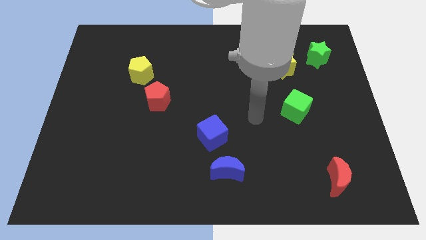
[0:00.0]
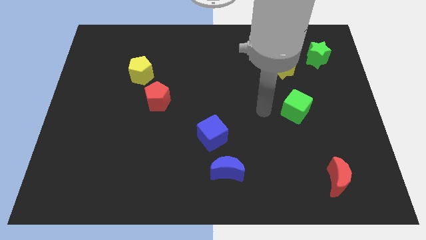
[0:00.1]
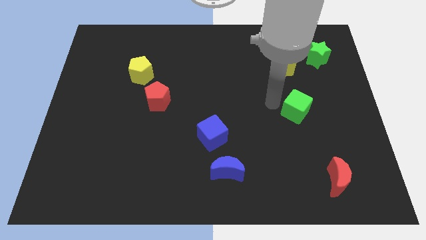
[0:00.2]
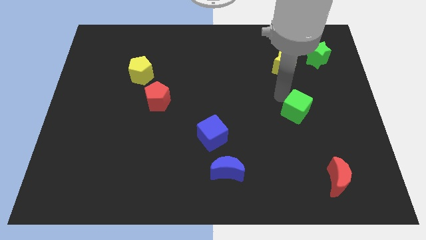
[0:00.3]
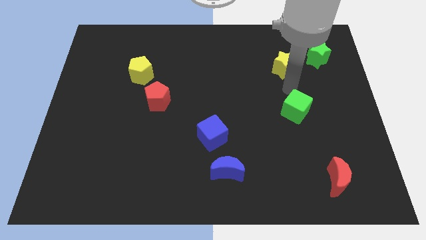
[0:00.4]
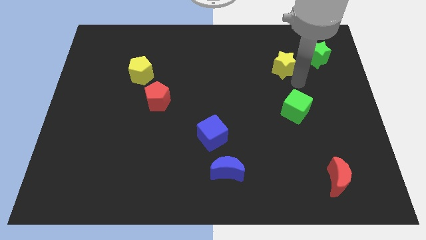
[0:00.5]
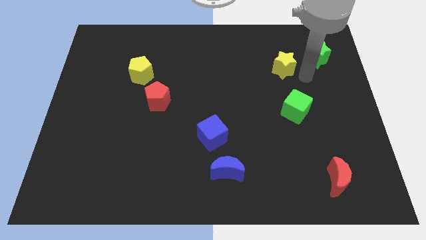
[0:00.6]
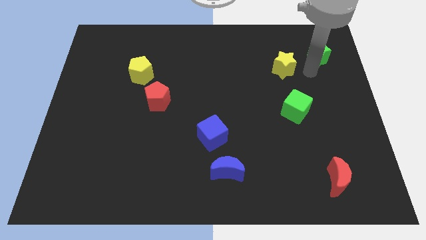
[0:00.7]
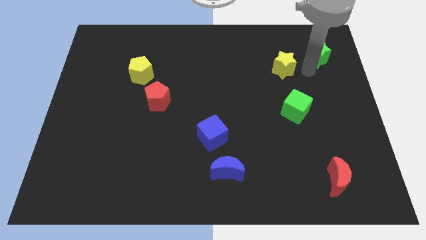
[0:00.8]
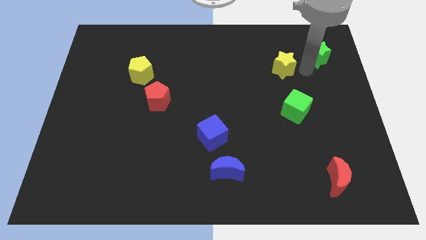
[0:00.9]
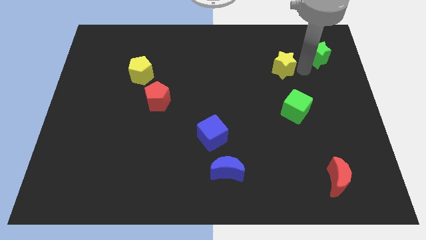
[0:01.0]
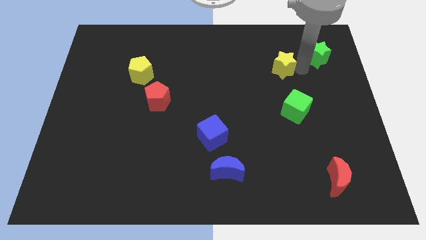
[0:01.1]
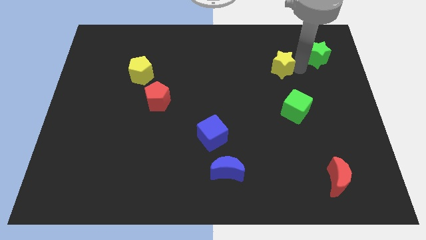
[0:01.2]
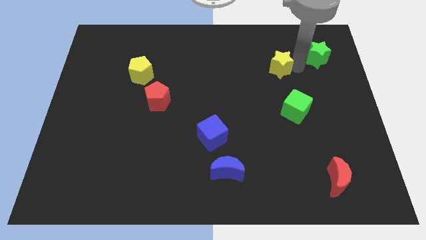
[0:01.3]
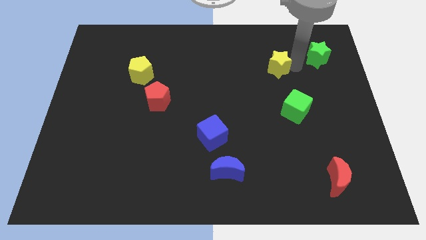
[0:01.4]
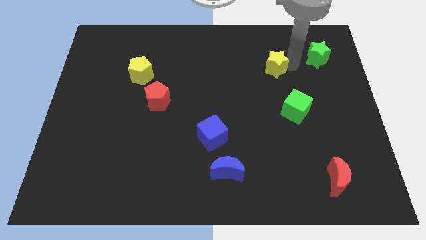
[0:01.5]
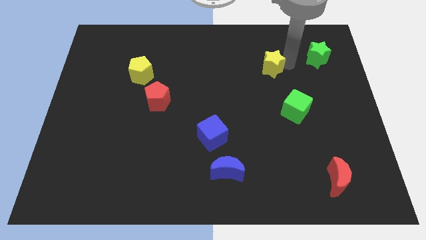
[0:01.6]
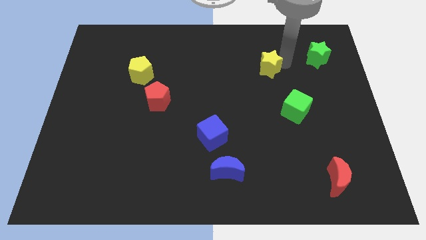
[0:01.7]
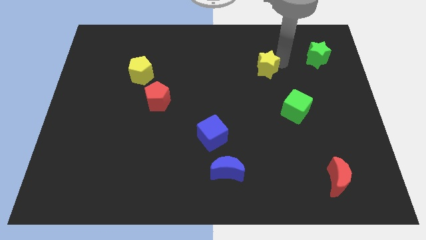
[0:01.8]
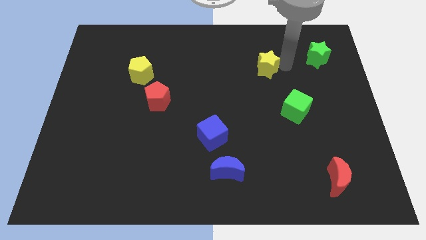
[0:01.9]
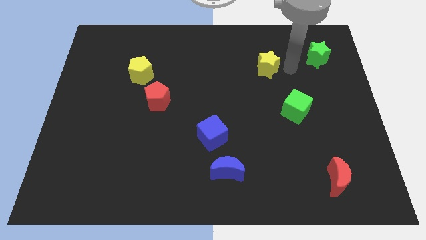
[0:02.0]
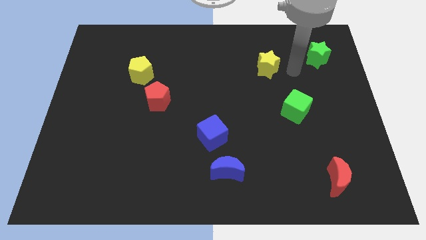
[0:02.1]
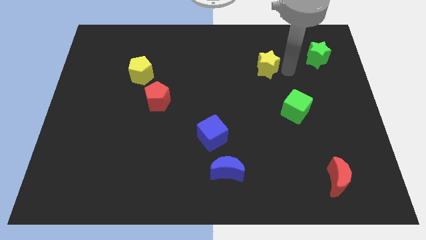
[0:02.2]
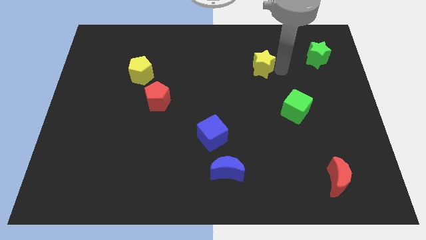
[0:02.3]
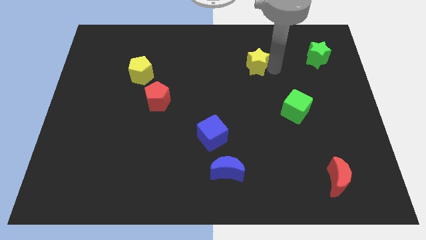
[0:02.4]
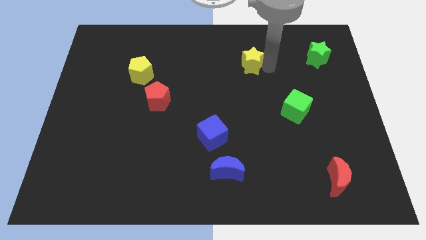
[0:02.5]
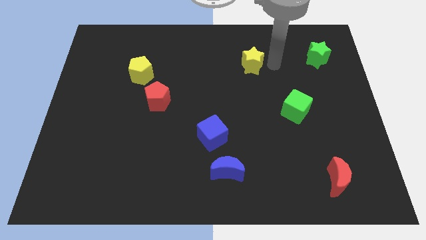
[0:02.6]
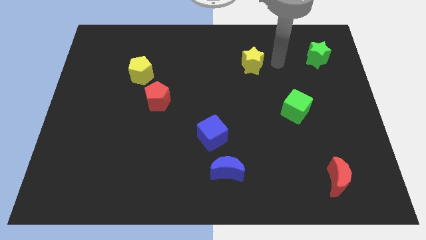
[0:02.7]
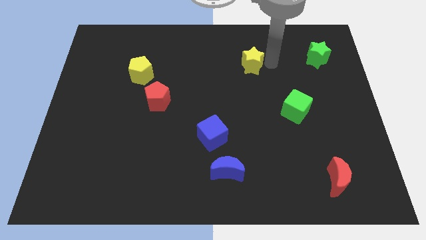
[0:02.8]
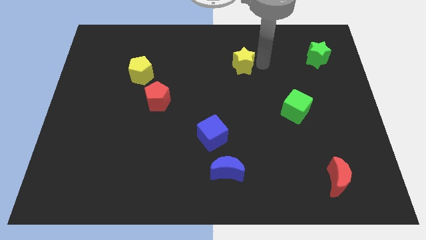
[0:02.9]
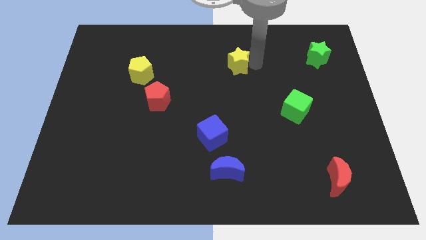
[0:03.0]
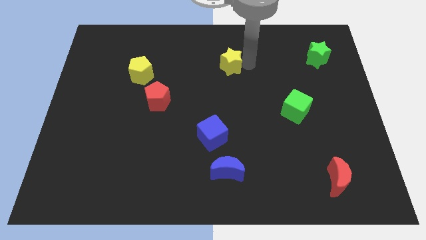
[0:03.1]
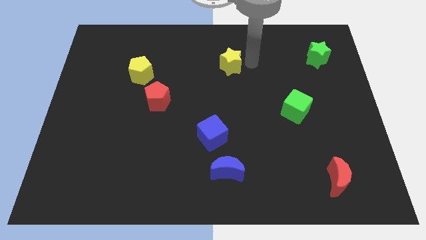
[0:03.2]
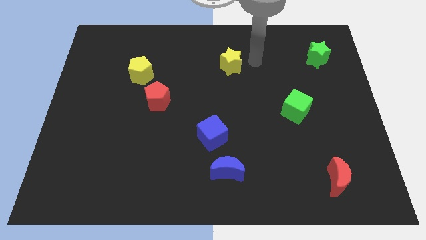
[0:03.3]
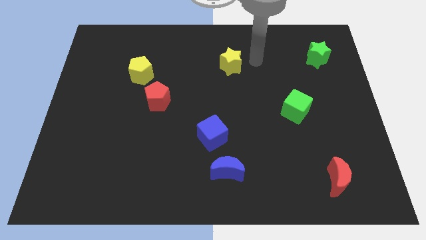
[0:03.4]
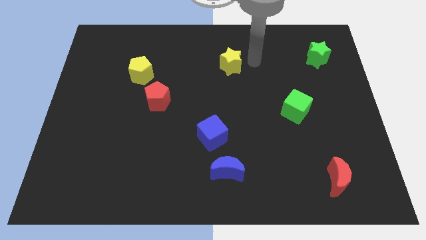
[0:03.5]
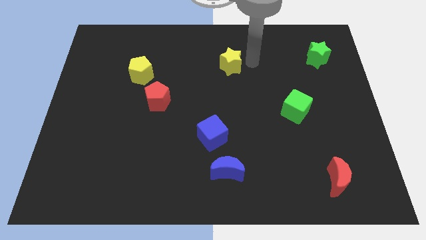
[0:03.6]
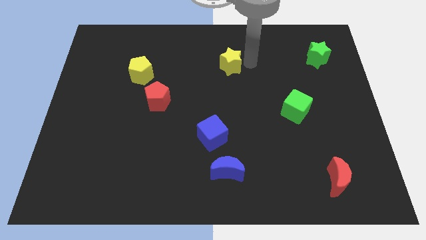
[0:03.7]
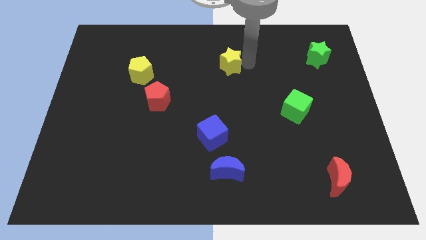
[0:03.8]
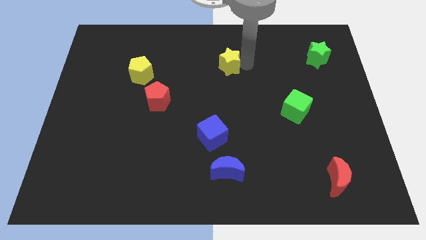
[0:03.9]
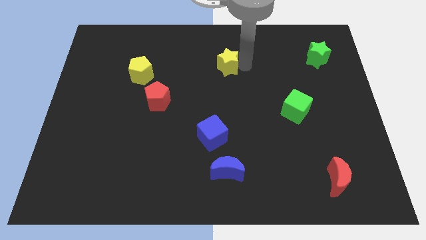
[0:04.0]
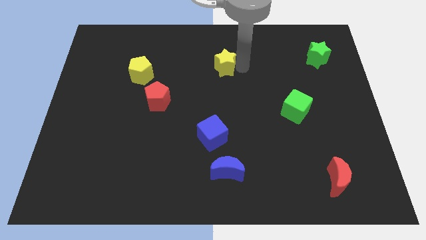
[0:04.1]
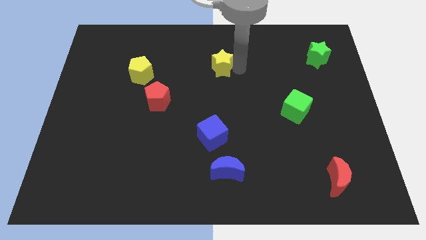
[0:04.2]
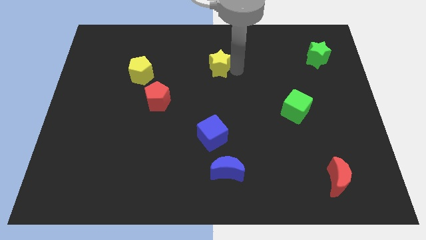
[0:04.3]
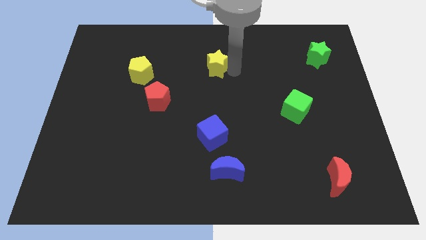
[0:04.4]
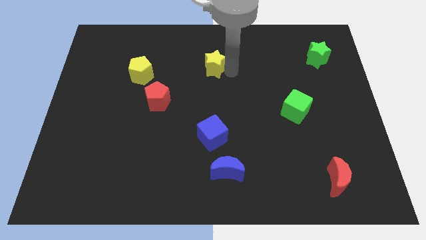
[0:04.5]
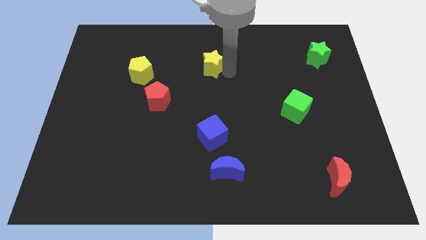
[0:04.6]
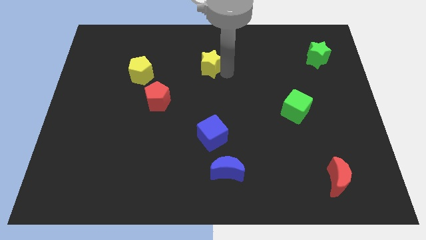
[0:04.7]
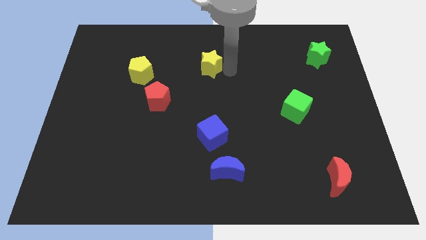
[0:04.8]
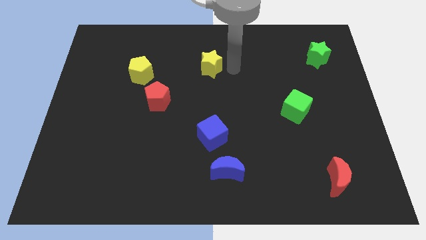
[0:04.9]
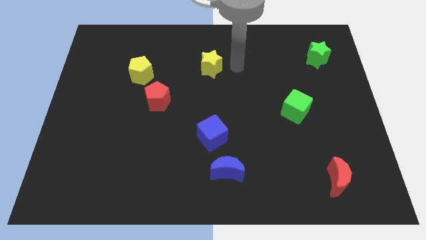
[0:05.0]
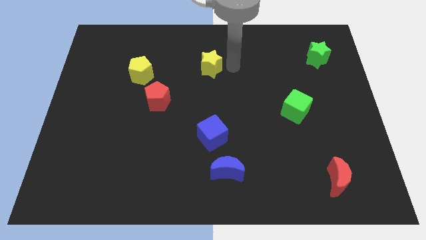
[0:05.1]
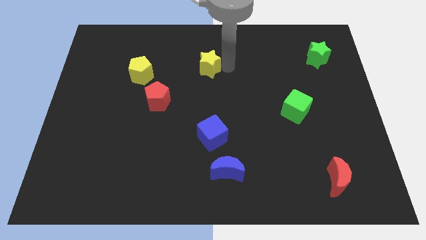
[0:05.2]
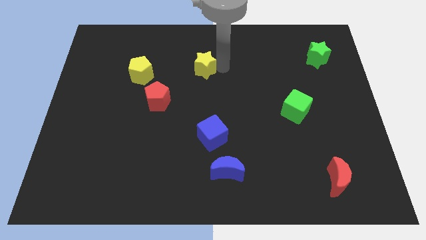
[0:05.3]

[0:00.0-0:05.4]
slide the yellow star left

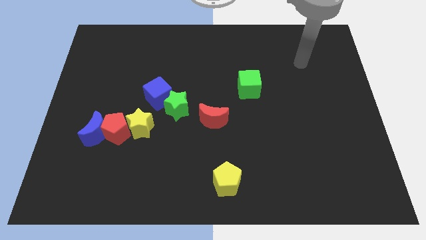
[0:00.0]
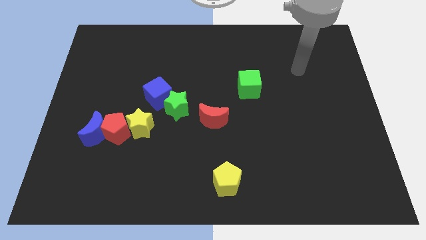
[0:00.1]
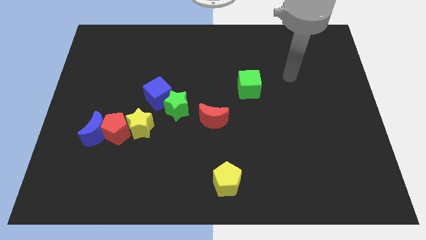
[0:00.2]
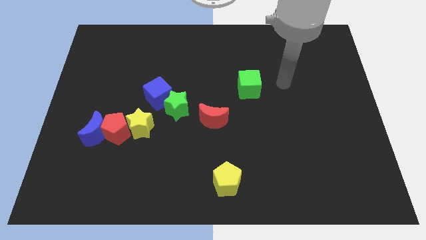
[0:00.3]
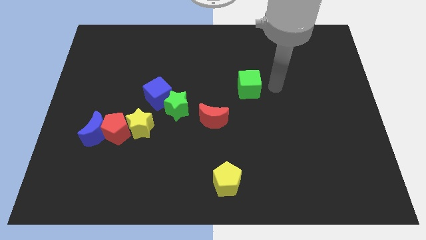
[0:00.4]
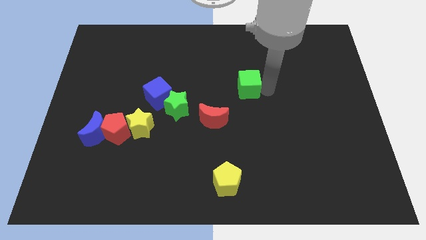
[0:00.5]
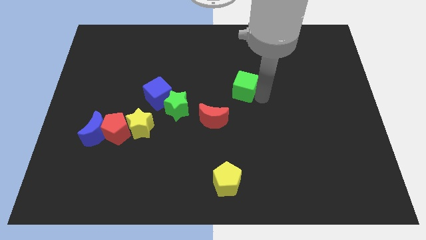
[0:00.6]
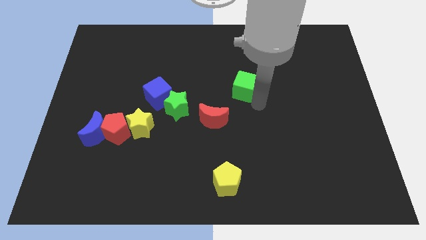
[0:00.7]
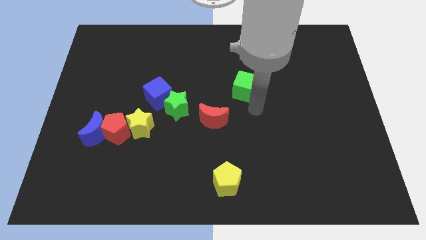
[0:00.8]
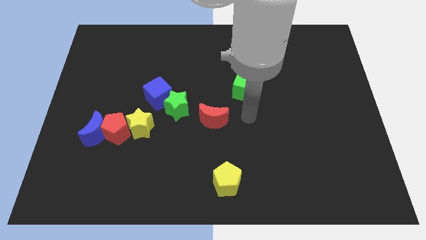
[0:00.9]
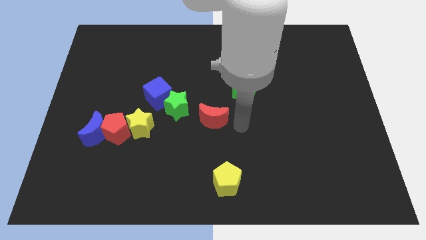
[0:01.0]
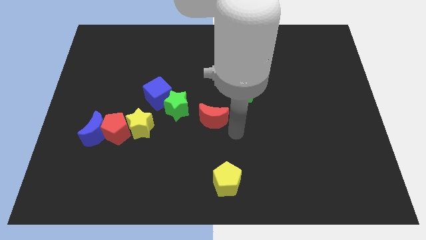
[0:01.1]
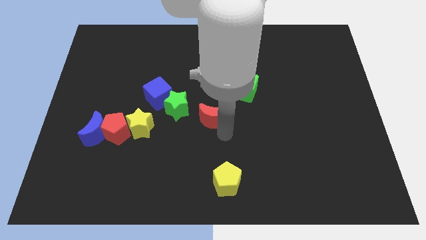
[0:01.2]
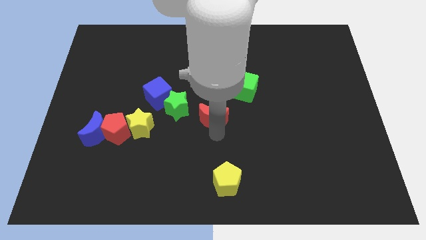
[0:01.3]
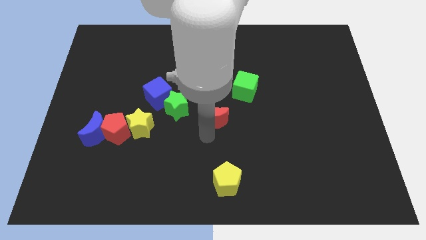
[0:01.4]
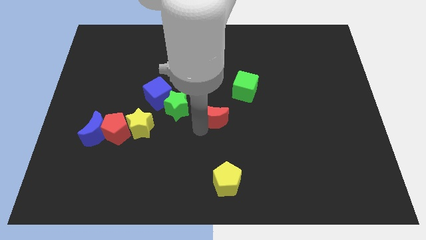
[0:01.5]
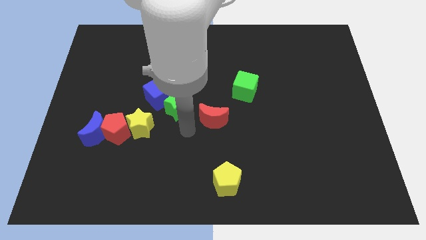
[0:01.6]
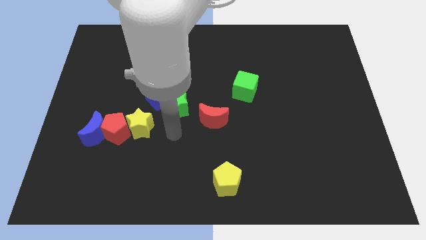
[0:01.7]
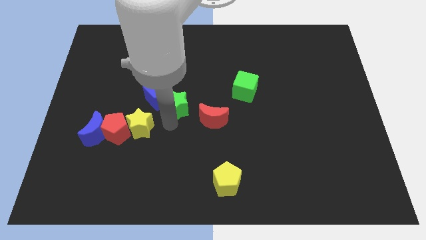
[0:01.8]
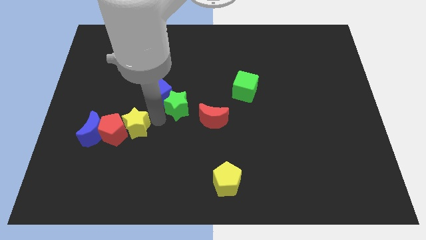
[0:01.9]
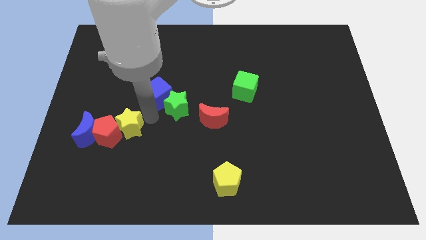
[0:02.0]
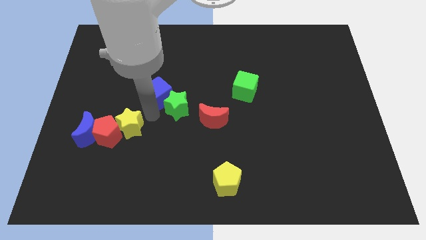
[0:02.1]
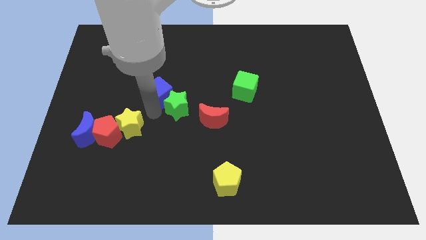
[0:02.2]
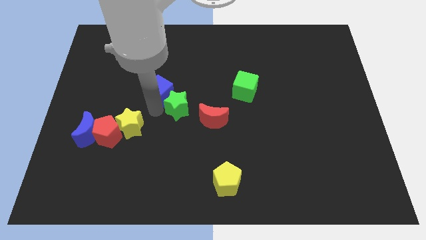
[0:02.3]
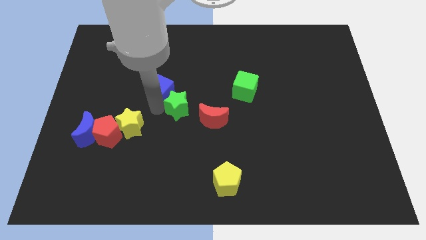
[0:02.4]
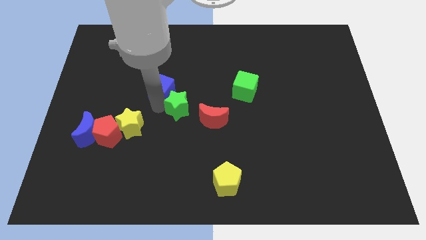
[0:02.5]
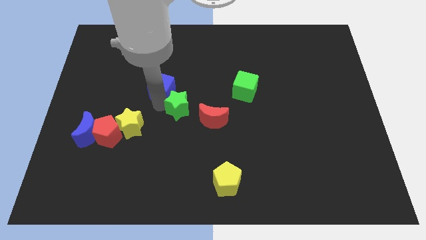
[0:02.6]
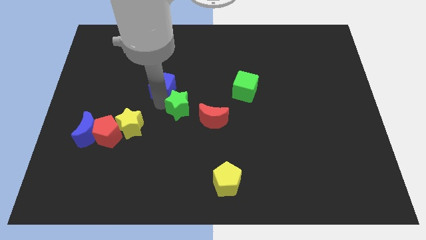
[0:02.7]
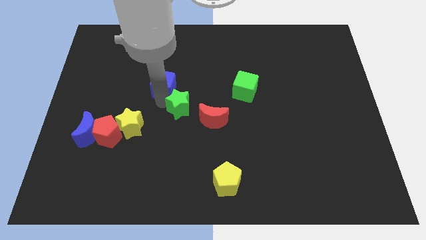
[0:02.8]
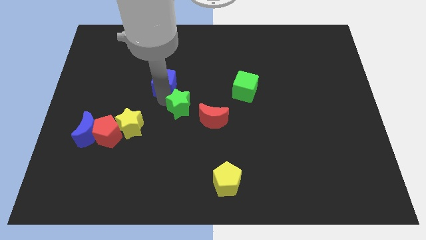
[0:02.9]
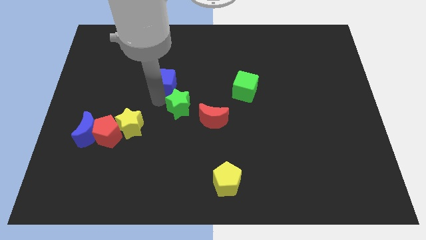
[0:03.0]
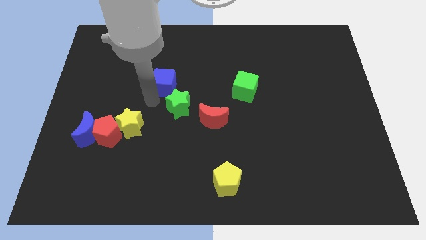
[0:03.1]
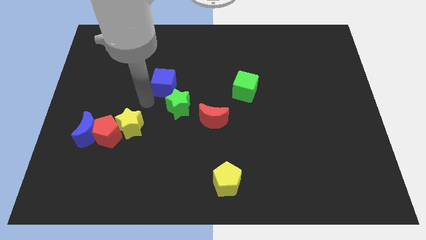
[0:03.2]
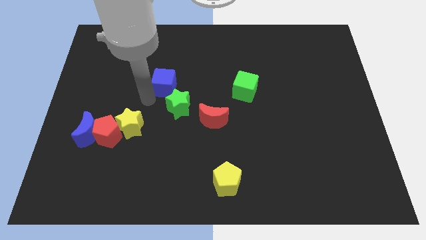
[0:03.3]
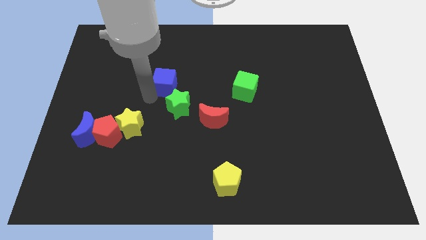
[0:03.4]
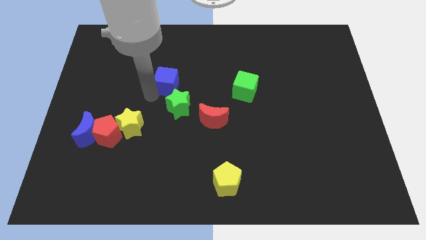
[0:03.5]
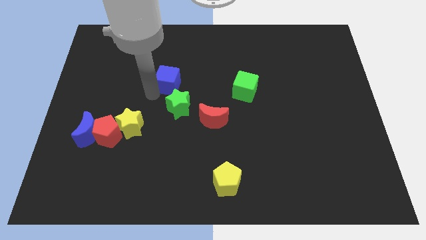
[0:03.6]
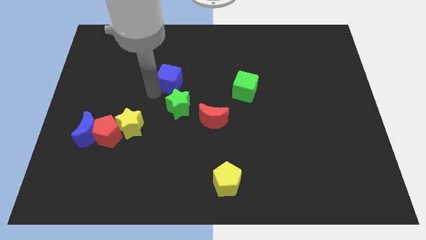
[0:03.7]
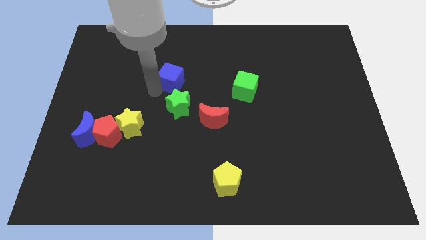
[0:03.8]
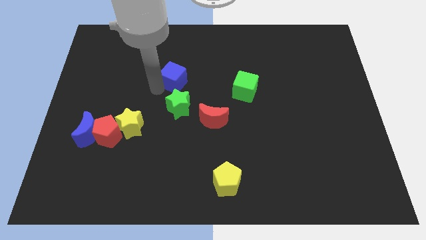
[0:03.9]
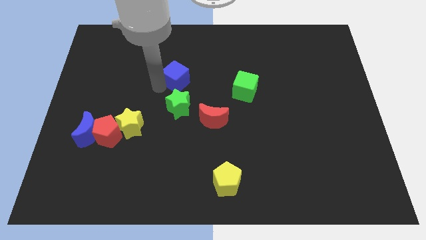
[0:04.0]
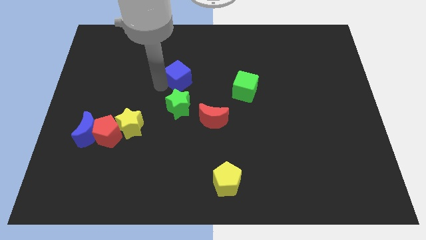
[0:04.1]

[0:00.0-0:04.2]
slightly slide the blue cube up and to the right diagonally
